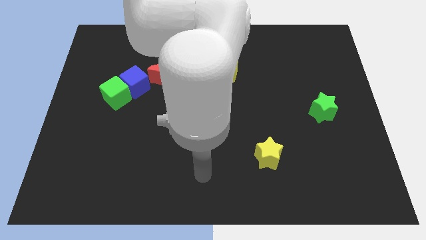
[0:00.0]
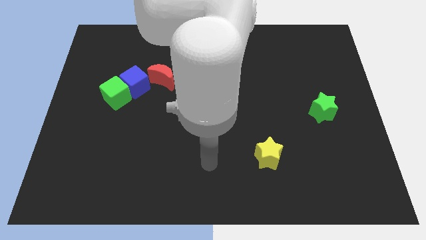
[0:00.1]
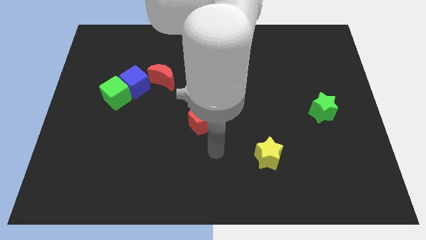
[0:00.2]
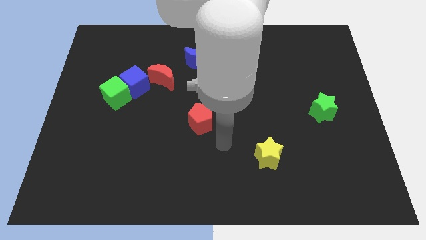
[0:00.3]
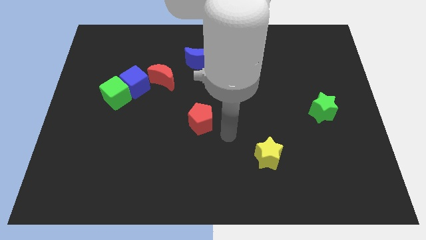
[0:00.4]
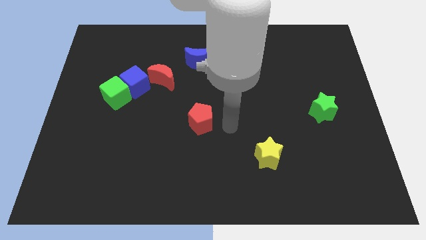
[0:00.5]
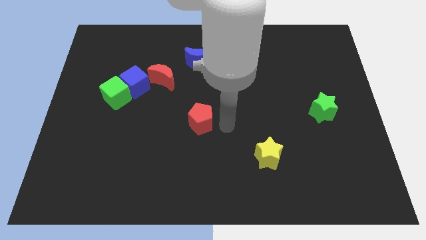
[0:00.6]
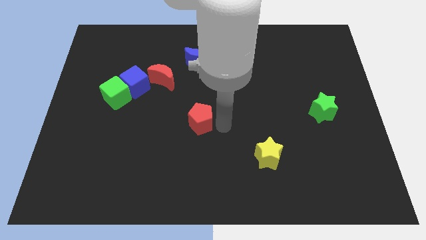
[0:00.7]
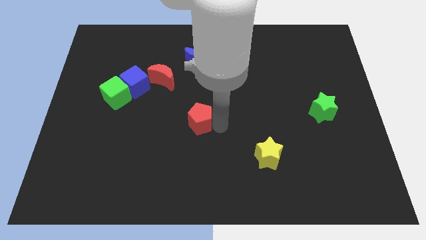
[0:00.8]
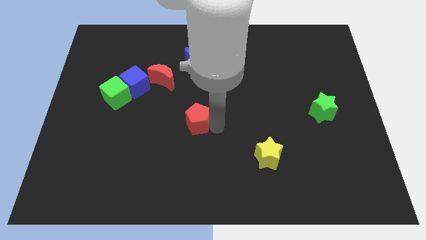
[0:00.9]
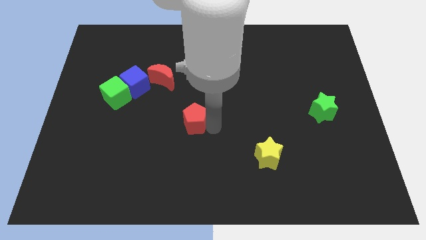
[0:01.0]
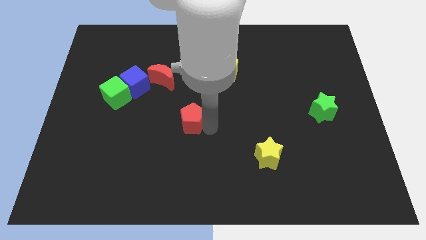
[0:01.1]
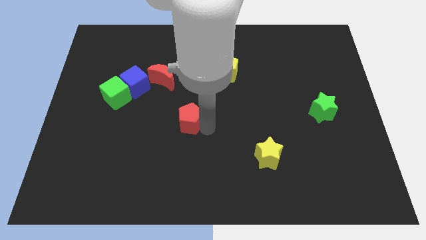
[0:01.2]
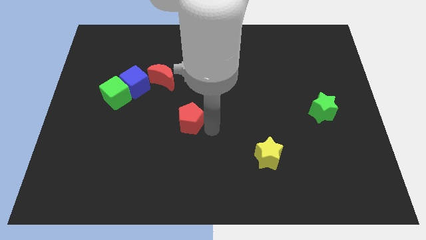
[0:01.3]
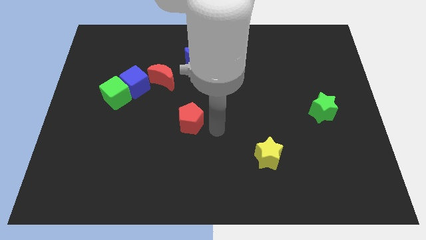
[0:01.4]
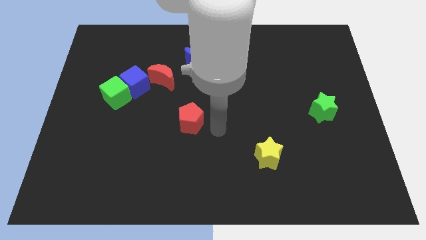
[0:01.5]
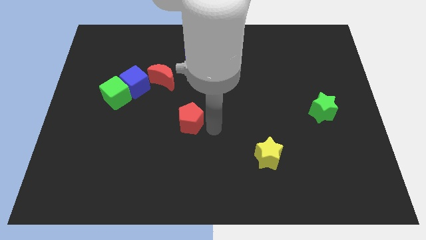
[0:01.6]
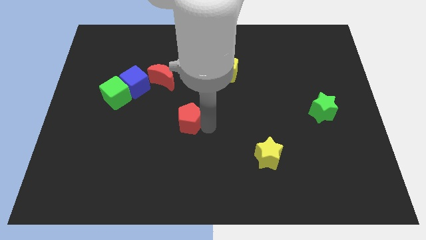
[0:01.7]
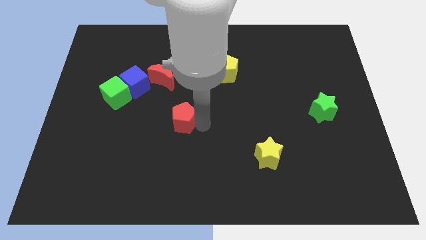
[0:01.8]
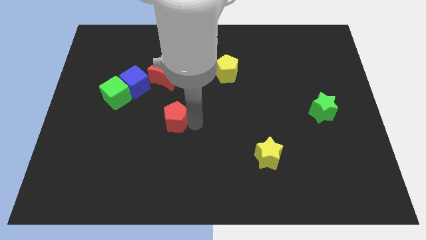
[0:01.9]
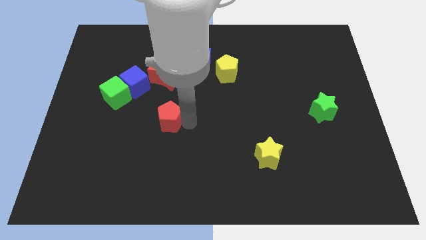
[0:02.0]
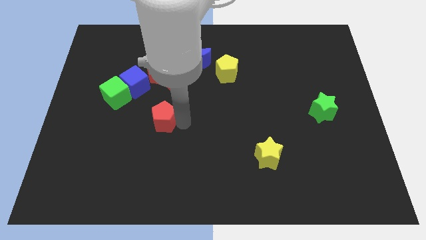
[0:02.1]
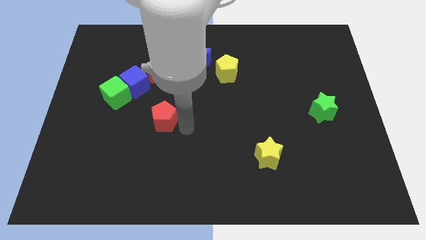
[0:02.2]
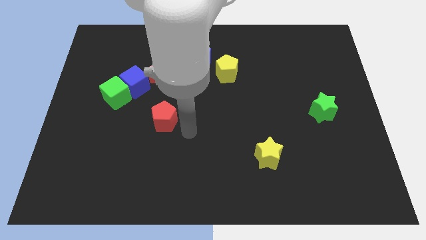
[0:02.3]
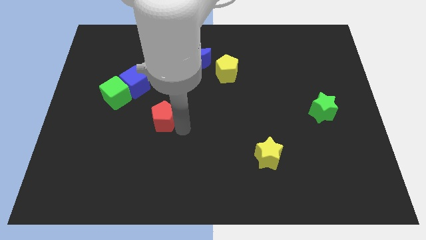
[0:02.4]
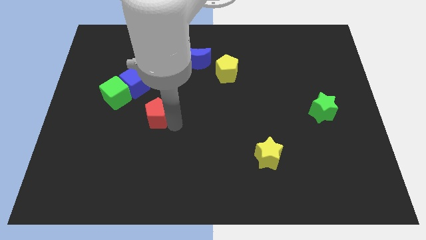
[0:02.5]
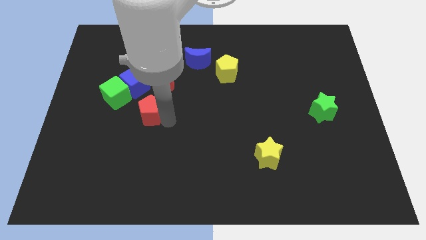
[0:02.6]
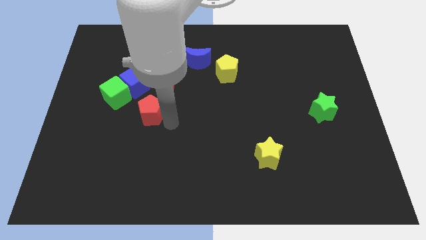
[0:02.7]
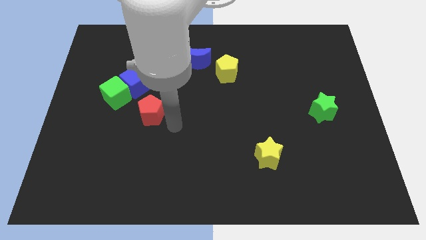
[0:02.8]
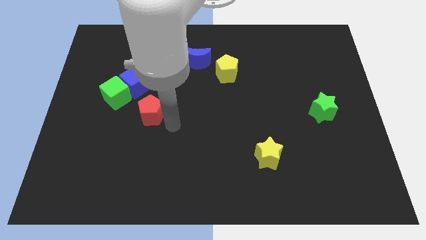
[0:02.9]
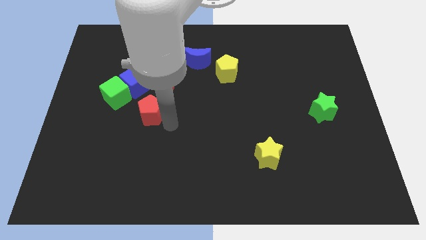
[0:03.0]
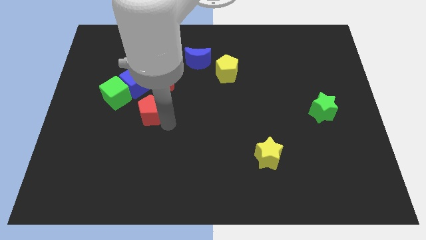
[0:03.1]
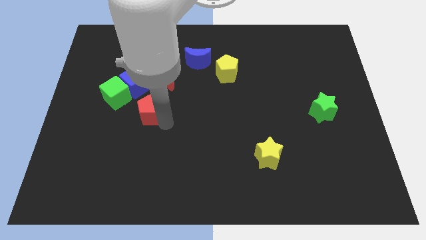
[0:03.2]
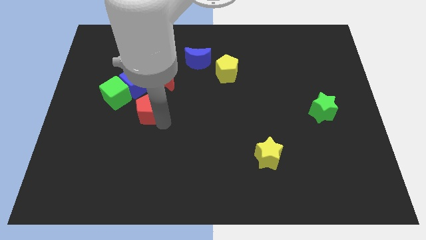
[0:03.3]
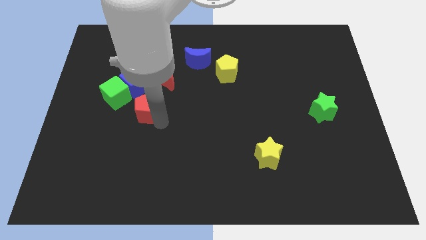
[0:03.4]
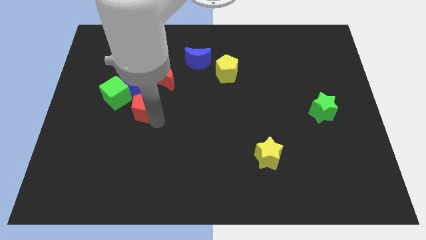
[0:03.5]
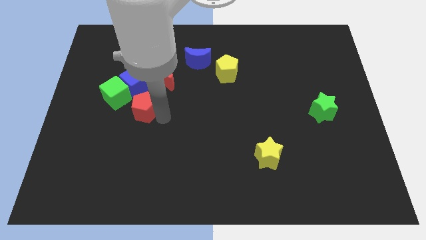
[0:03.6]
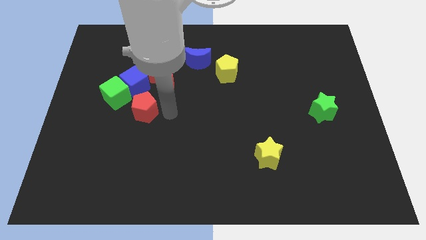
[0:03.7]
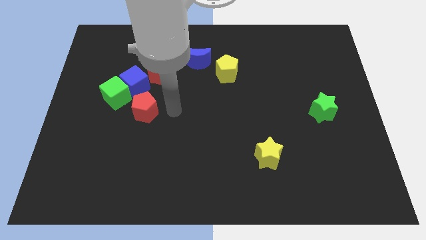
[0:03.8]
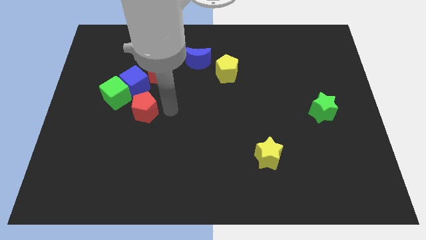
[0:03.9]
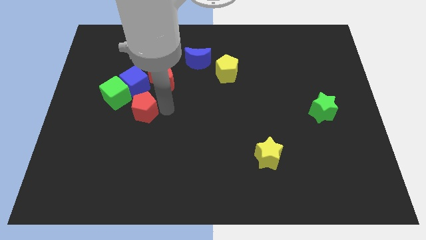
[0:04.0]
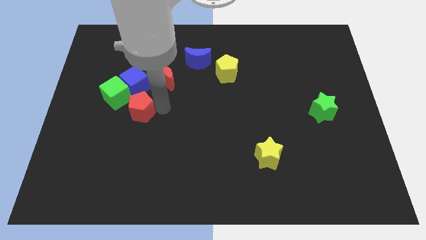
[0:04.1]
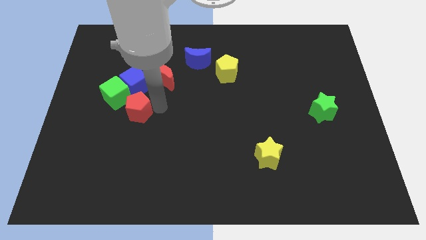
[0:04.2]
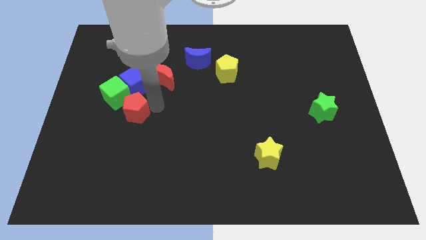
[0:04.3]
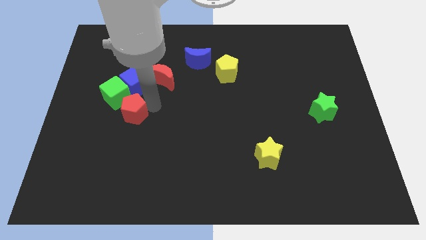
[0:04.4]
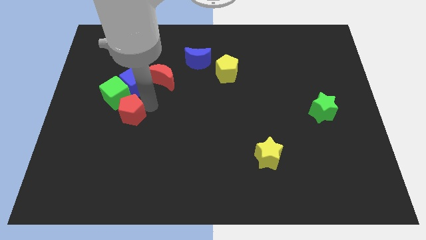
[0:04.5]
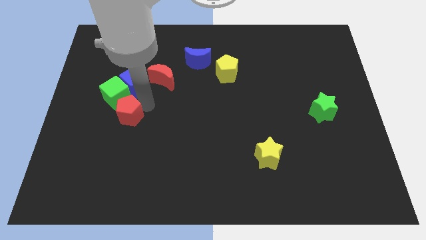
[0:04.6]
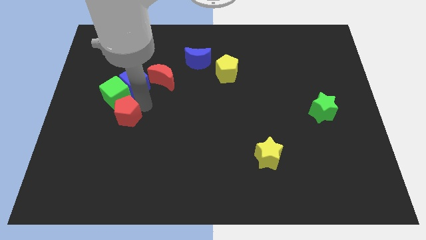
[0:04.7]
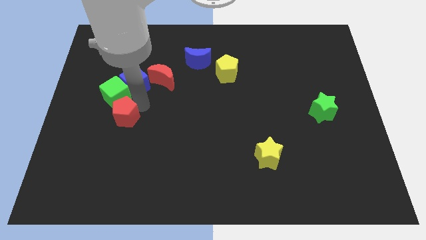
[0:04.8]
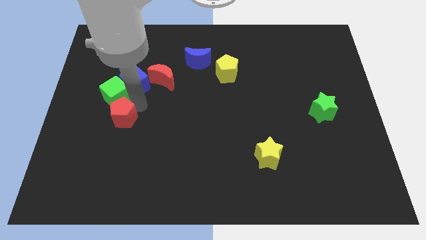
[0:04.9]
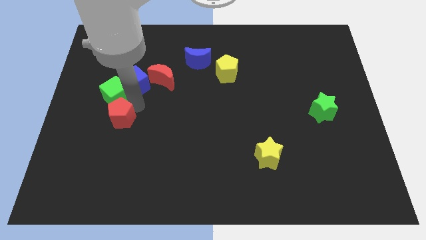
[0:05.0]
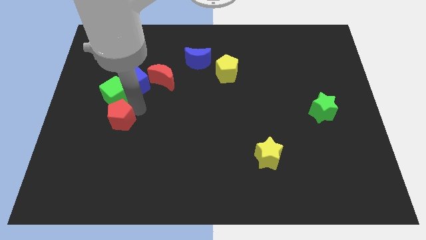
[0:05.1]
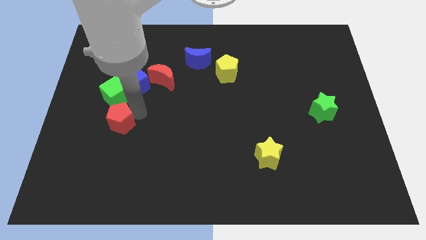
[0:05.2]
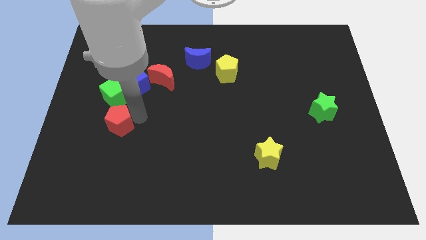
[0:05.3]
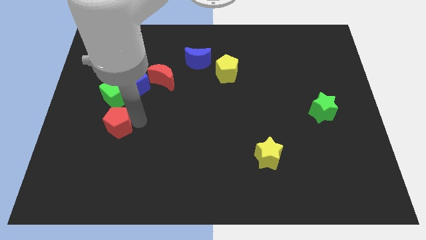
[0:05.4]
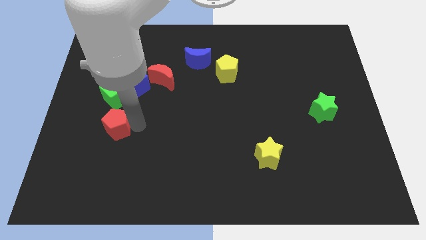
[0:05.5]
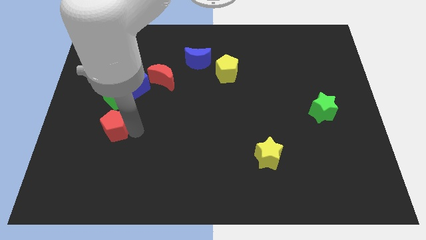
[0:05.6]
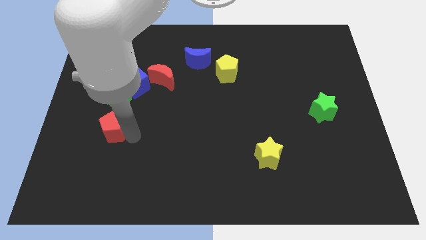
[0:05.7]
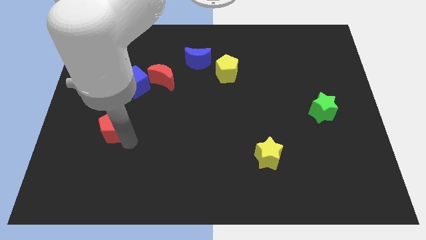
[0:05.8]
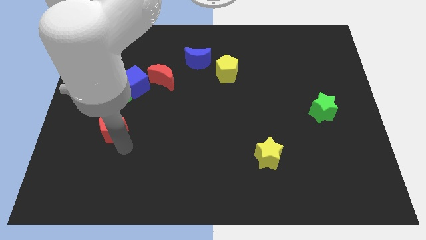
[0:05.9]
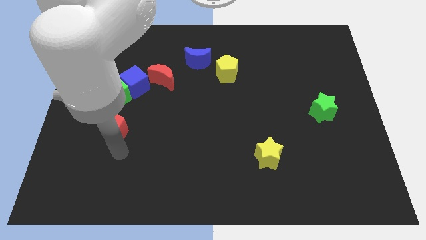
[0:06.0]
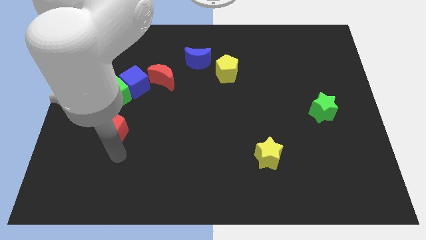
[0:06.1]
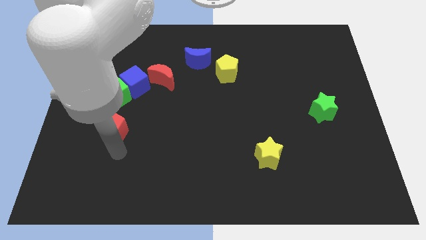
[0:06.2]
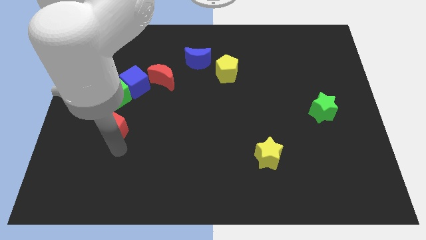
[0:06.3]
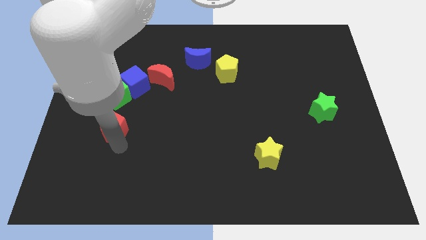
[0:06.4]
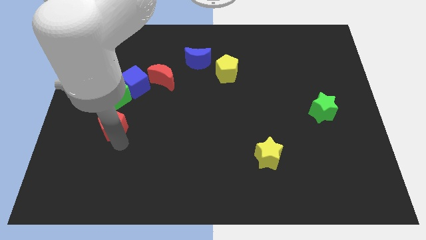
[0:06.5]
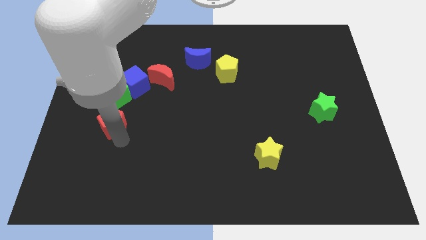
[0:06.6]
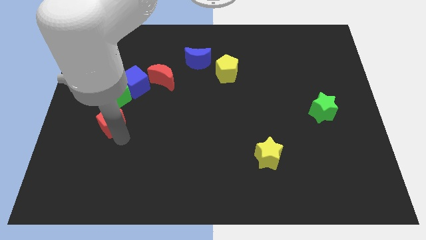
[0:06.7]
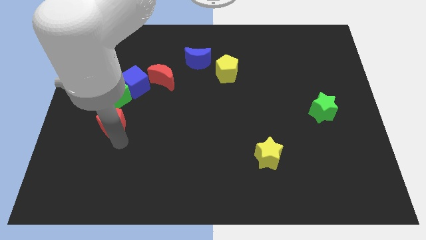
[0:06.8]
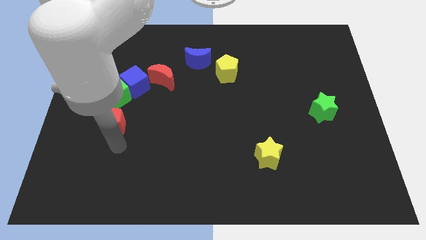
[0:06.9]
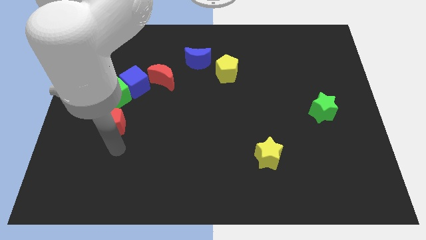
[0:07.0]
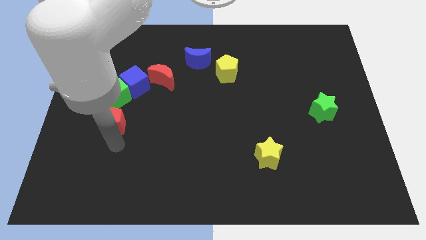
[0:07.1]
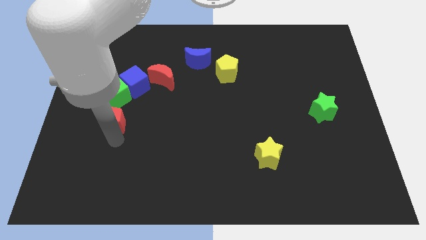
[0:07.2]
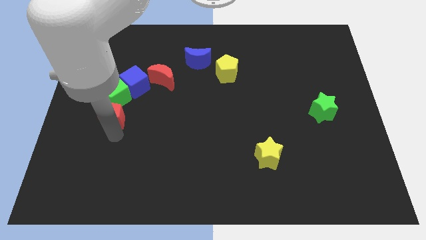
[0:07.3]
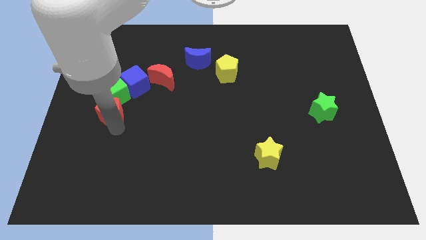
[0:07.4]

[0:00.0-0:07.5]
move the red pentagon to the bottom left side of the green cube

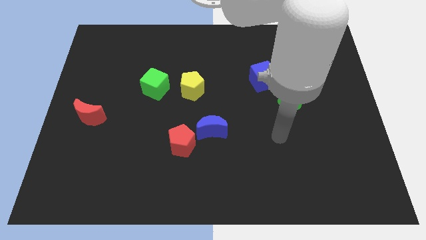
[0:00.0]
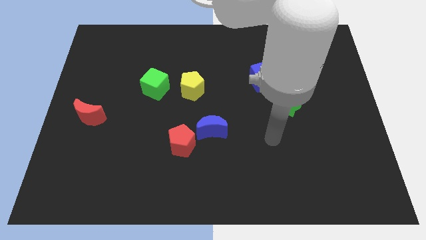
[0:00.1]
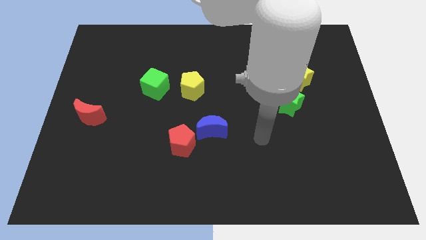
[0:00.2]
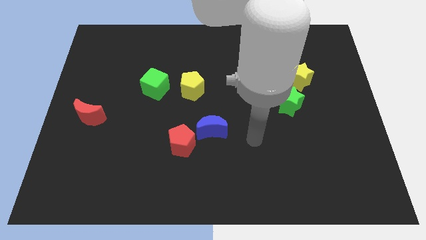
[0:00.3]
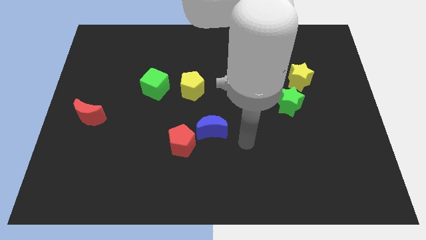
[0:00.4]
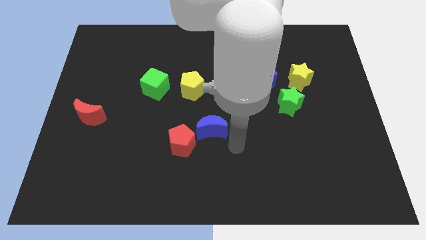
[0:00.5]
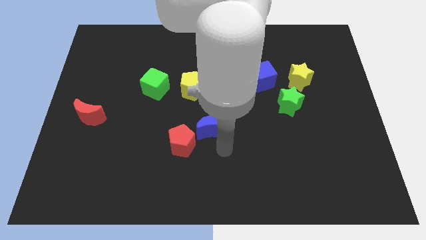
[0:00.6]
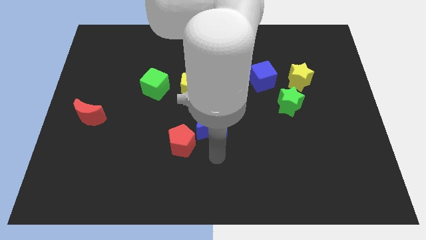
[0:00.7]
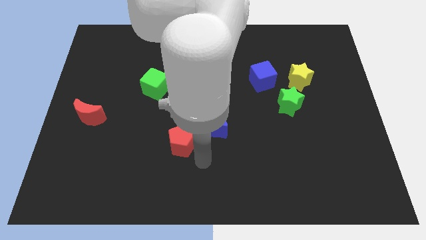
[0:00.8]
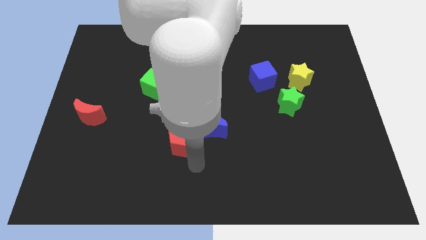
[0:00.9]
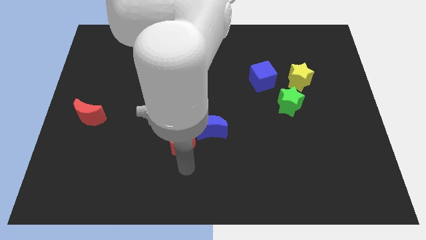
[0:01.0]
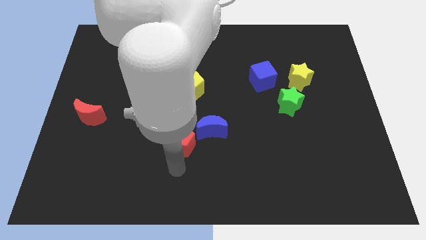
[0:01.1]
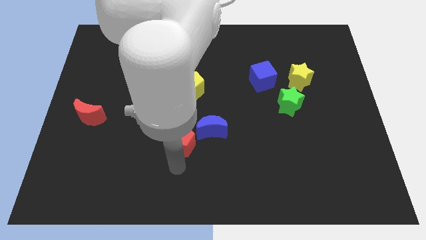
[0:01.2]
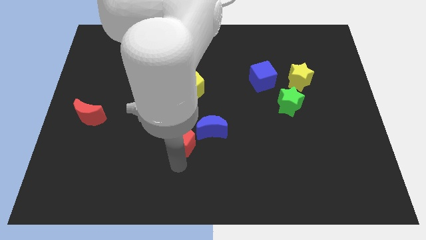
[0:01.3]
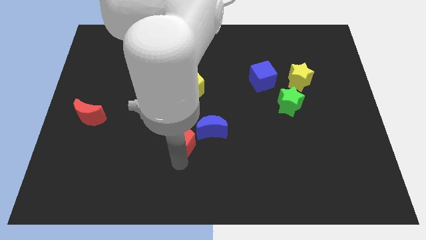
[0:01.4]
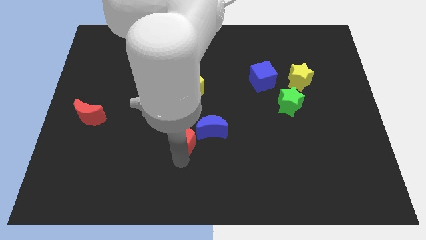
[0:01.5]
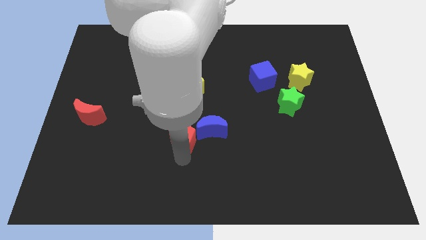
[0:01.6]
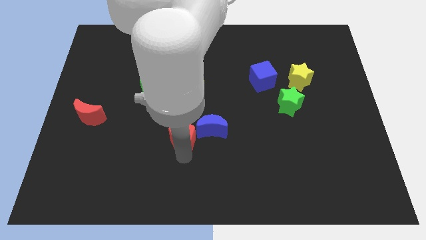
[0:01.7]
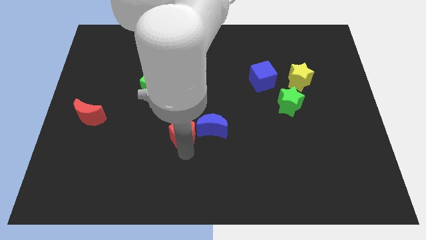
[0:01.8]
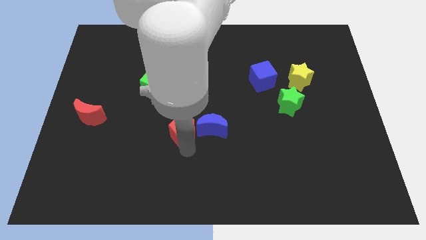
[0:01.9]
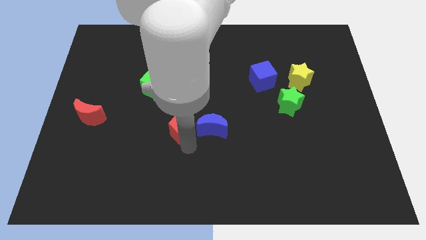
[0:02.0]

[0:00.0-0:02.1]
push the red pentagon to the top left side of the blue moon
